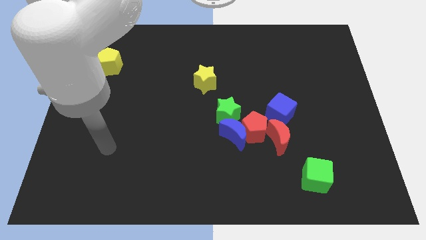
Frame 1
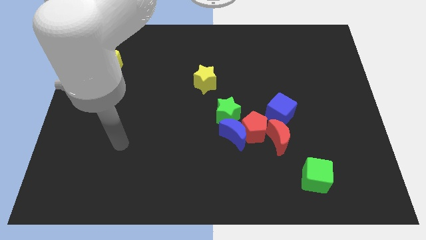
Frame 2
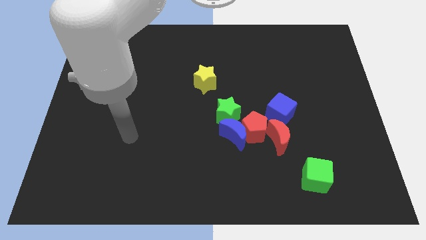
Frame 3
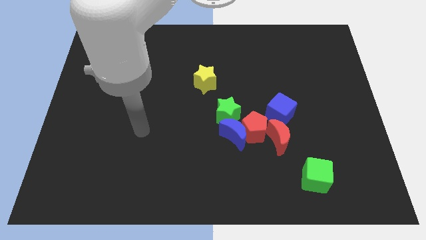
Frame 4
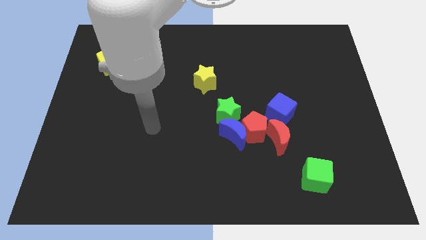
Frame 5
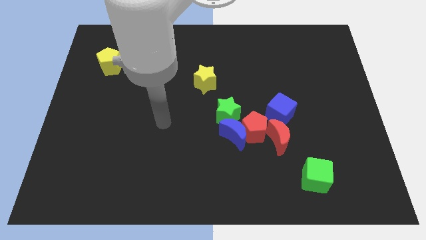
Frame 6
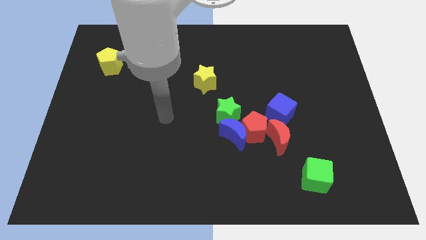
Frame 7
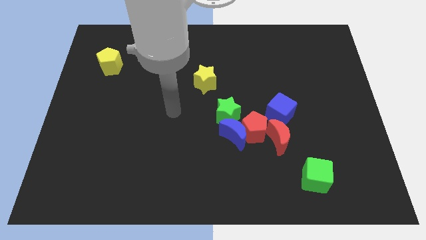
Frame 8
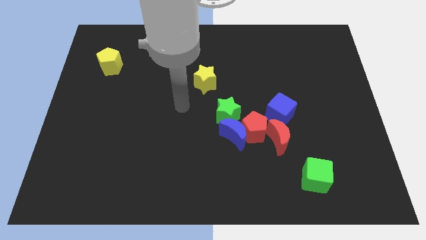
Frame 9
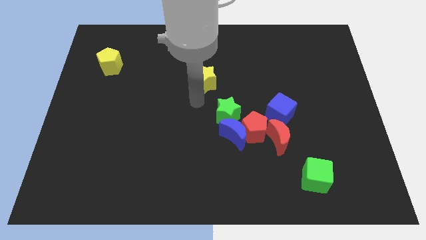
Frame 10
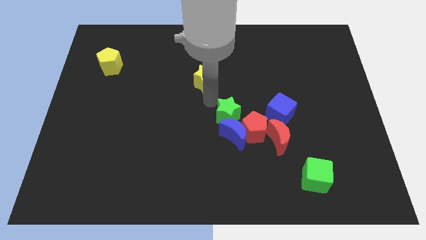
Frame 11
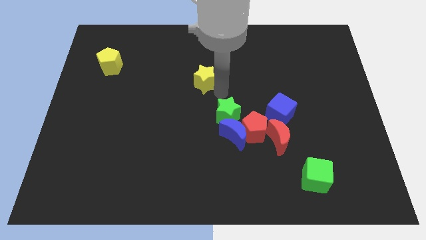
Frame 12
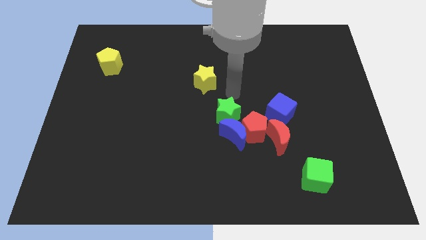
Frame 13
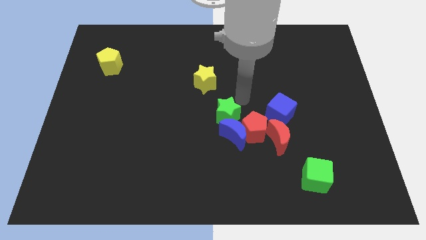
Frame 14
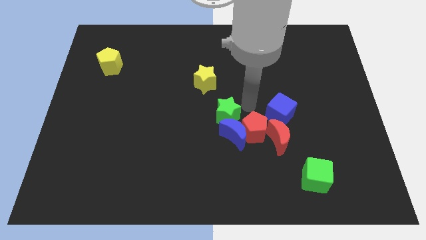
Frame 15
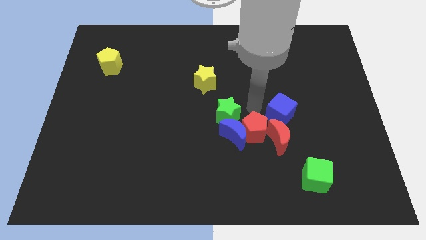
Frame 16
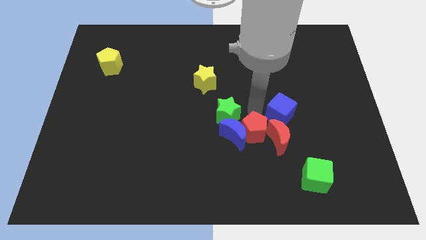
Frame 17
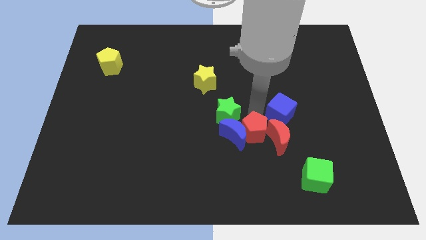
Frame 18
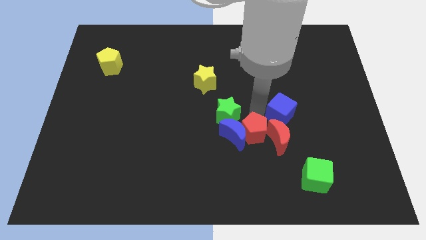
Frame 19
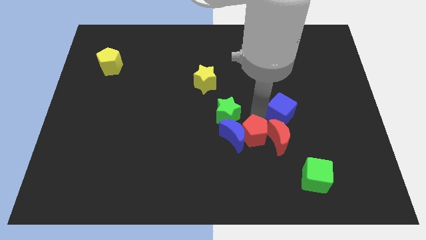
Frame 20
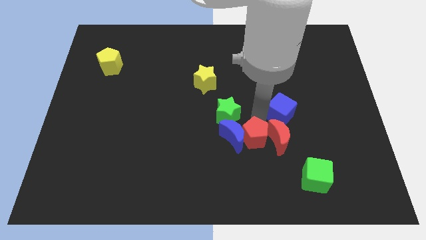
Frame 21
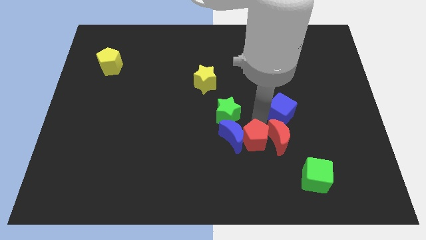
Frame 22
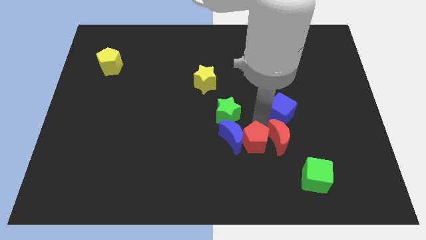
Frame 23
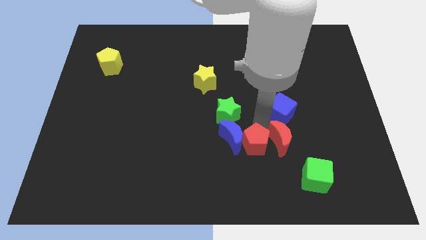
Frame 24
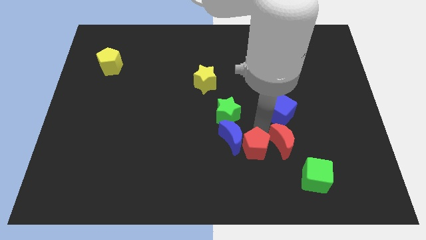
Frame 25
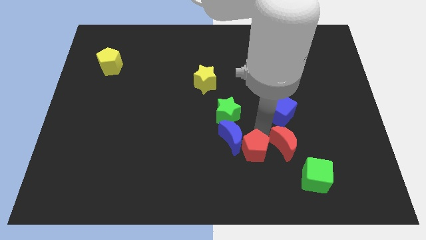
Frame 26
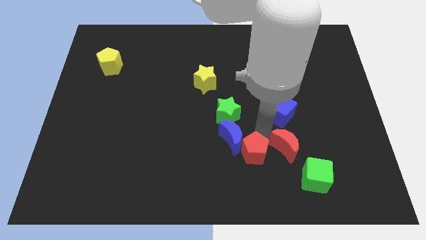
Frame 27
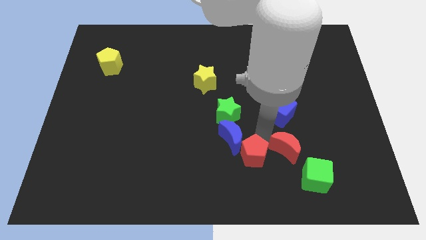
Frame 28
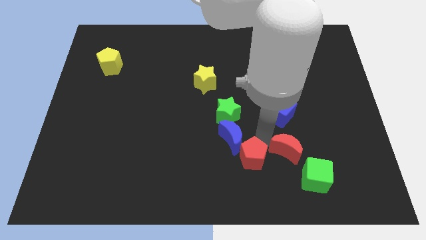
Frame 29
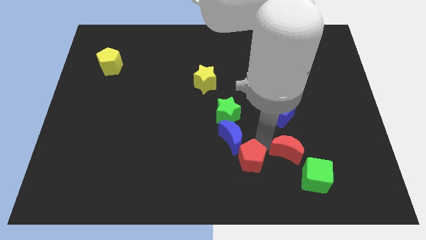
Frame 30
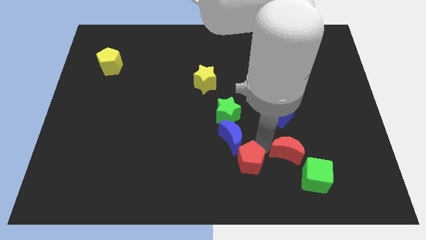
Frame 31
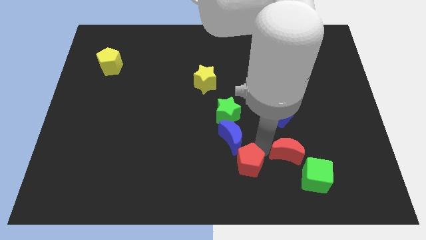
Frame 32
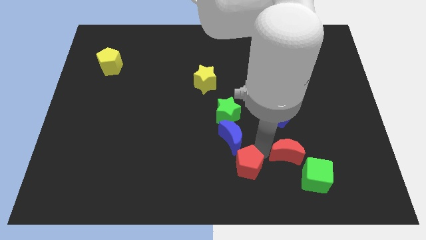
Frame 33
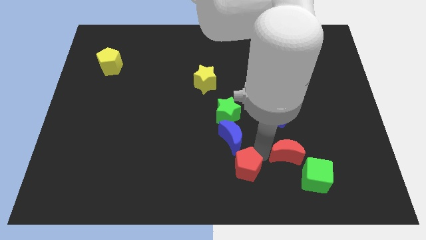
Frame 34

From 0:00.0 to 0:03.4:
pull the red pentagon apart from the clump

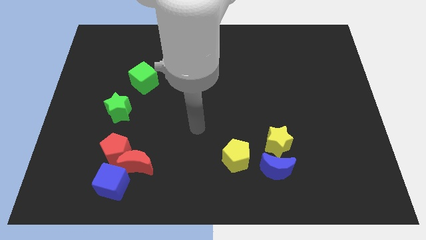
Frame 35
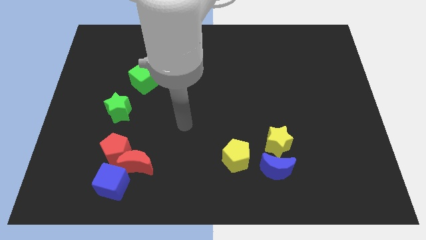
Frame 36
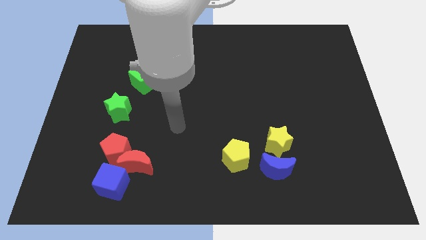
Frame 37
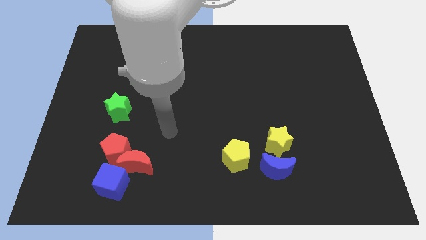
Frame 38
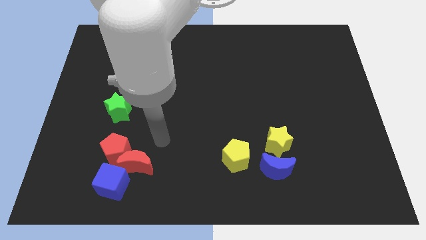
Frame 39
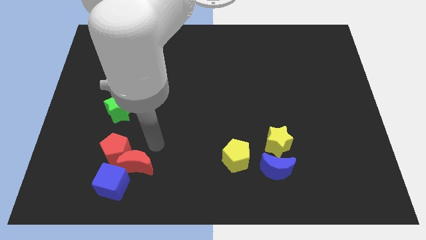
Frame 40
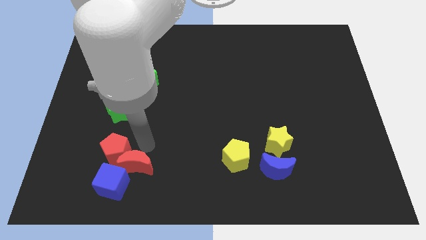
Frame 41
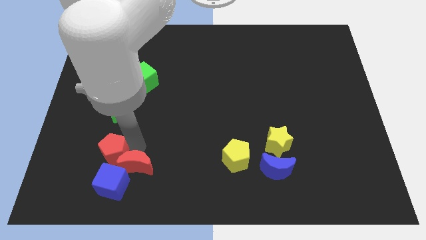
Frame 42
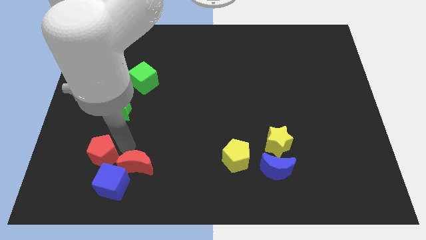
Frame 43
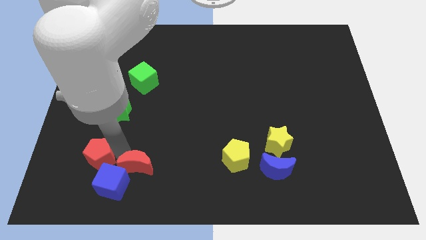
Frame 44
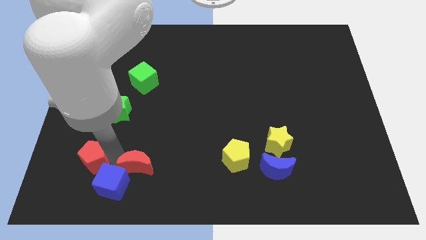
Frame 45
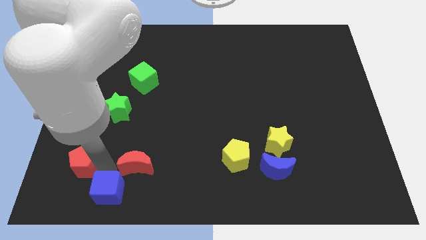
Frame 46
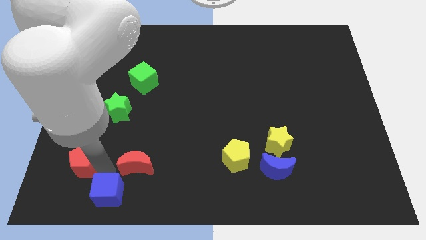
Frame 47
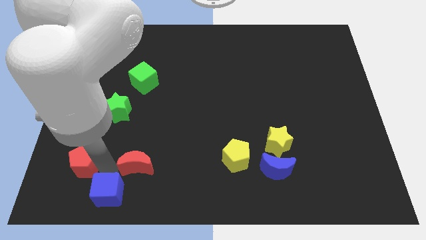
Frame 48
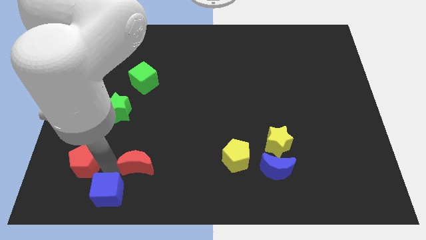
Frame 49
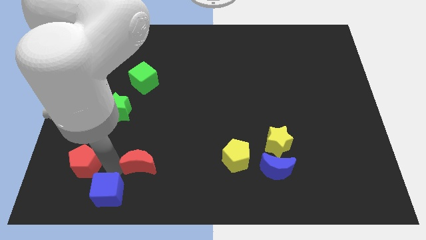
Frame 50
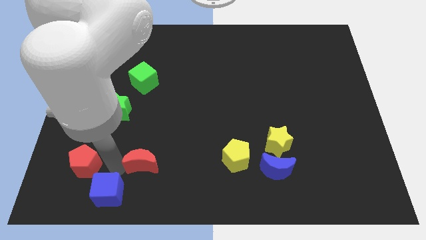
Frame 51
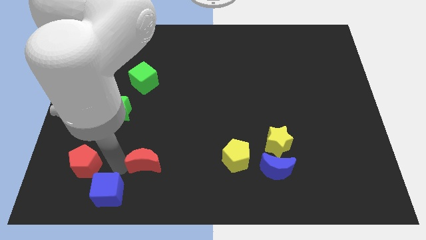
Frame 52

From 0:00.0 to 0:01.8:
move the red moon away from the red pentagon and blue cube

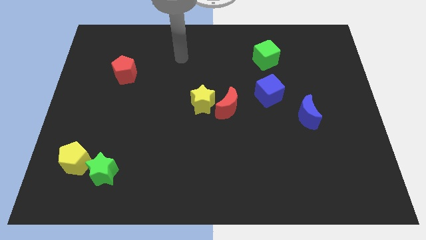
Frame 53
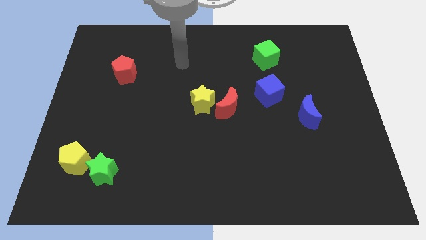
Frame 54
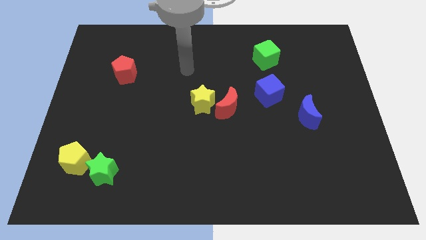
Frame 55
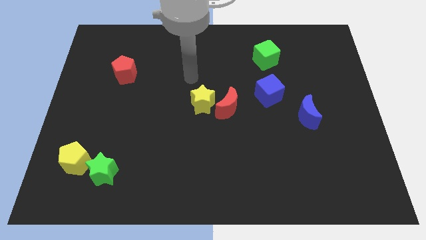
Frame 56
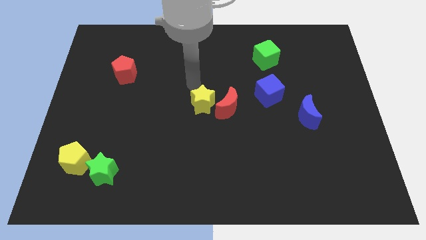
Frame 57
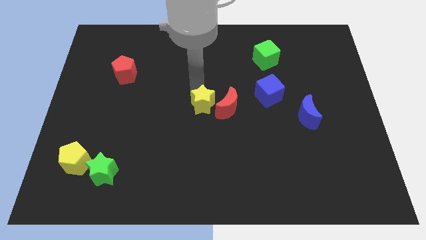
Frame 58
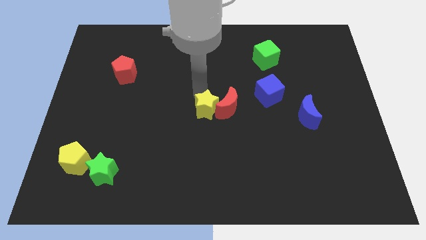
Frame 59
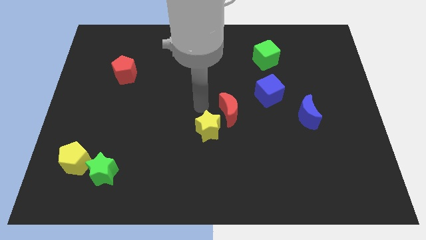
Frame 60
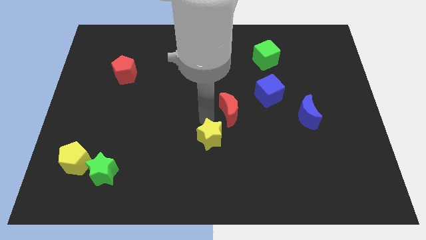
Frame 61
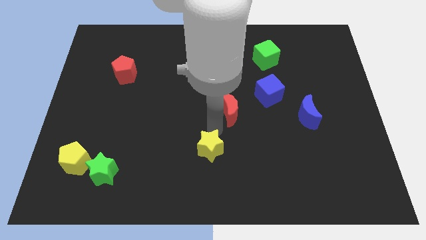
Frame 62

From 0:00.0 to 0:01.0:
separate the red moon from the yellow star

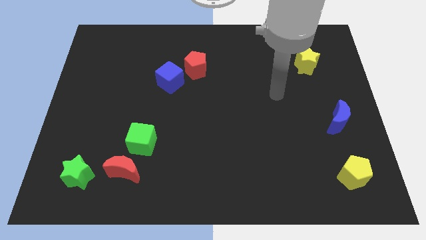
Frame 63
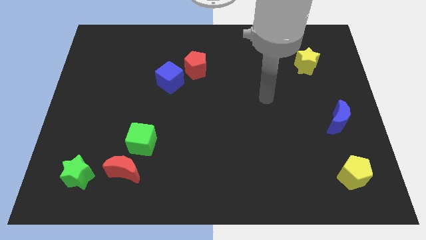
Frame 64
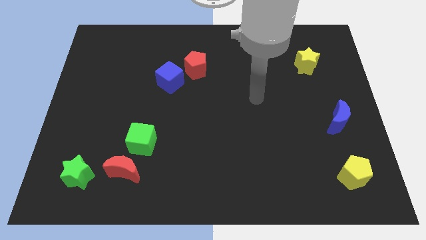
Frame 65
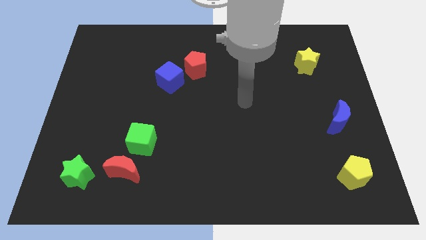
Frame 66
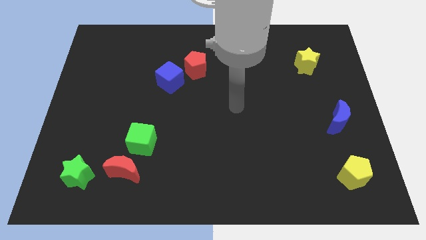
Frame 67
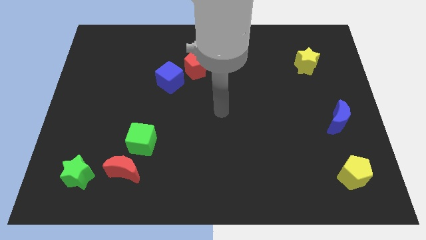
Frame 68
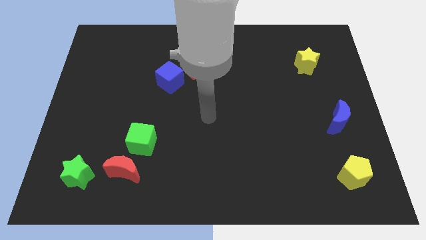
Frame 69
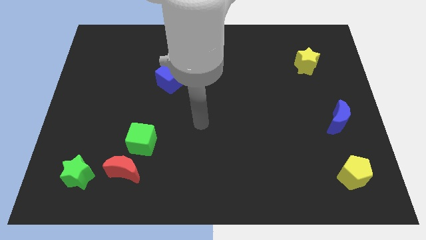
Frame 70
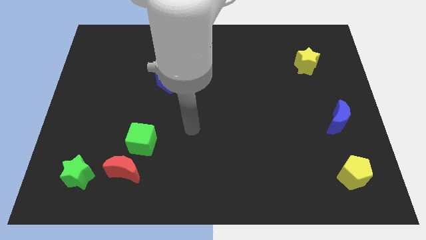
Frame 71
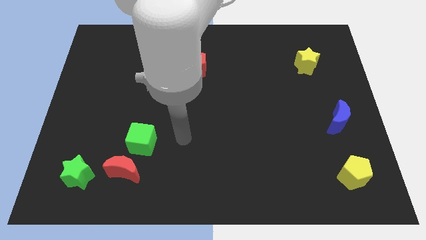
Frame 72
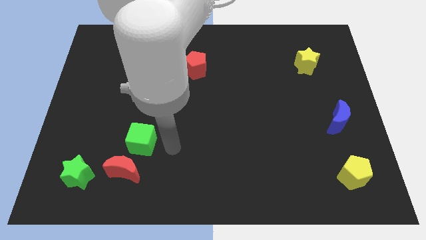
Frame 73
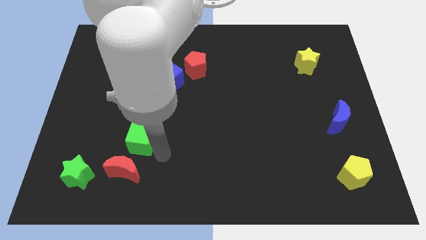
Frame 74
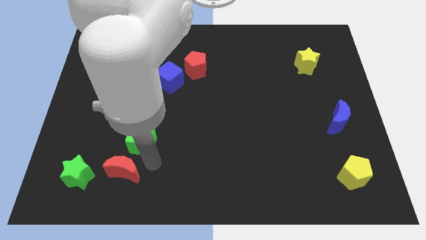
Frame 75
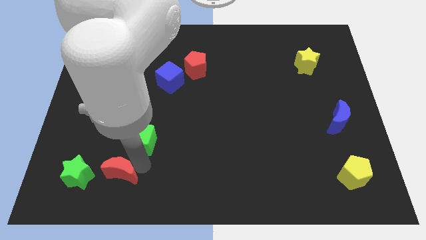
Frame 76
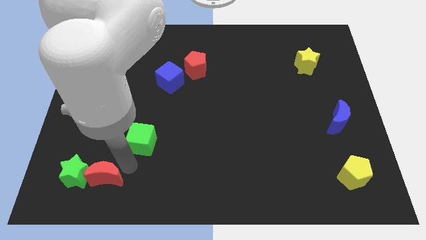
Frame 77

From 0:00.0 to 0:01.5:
move the green cube away from the red moon

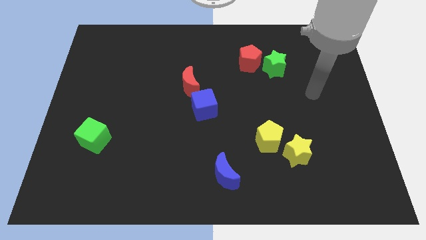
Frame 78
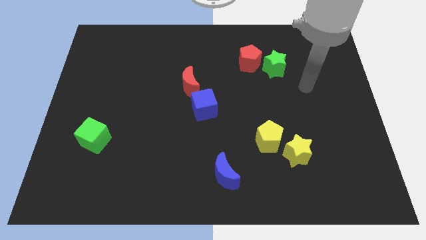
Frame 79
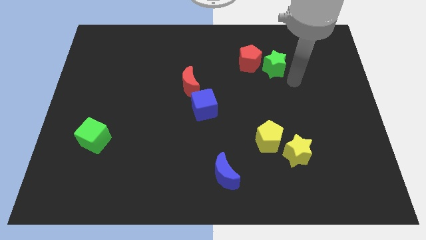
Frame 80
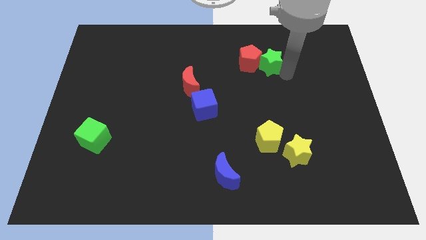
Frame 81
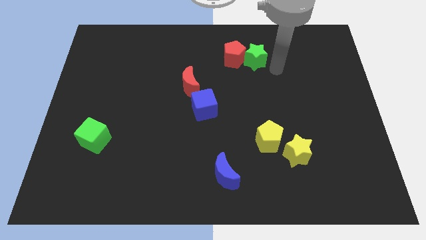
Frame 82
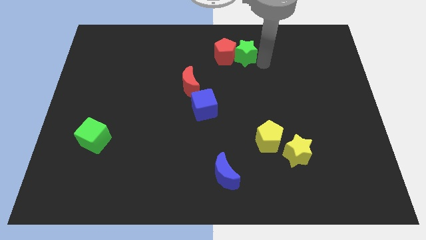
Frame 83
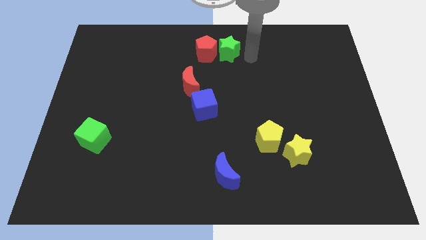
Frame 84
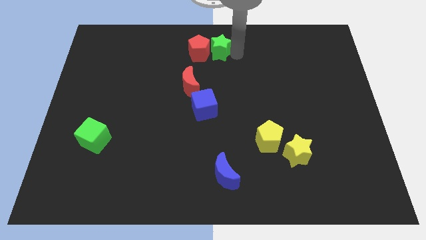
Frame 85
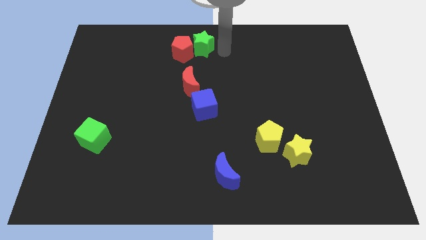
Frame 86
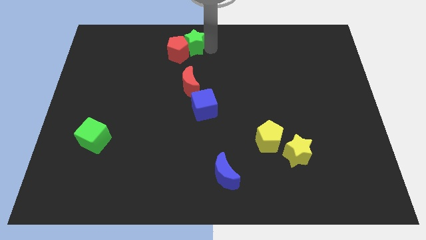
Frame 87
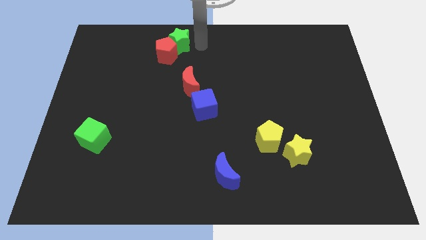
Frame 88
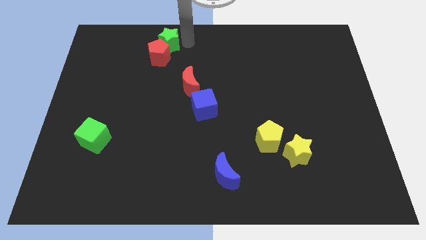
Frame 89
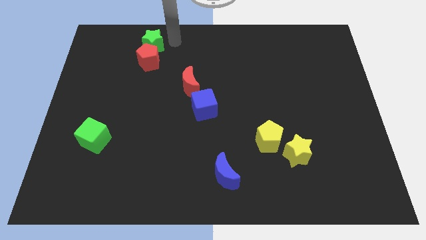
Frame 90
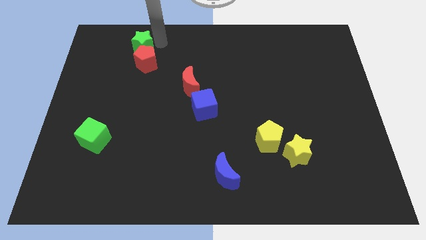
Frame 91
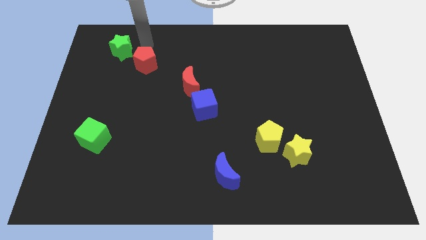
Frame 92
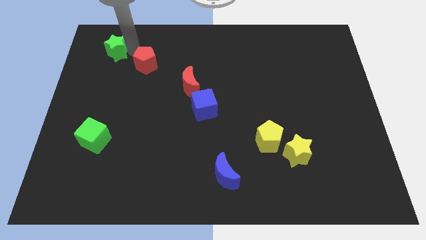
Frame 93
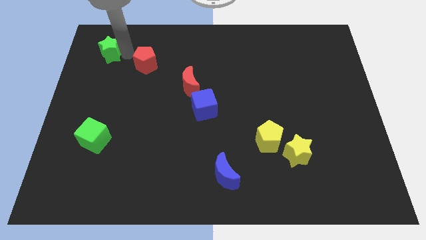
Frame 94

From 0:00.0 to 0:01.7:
move the red pentagon away from the green star
